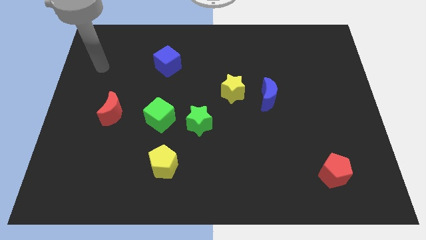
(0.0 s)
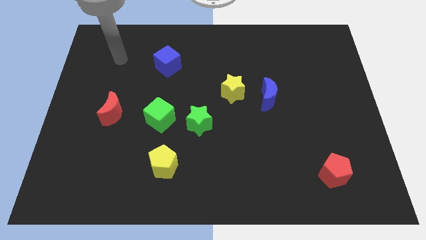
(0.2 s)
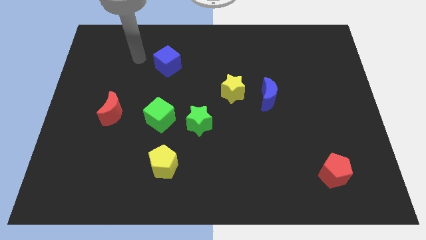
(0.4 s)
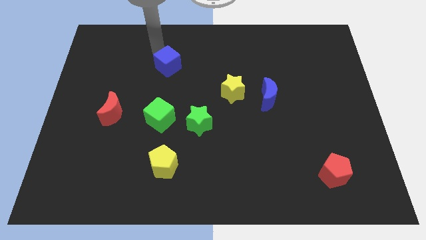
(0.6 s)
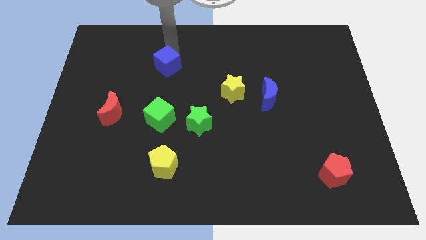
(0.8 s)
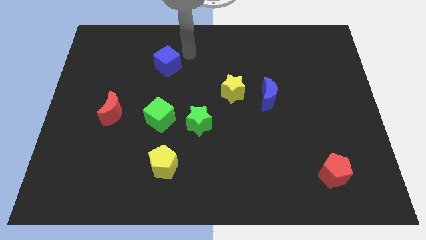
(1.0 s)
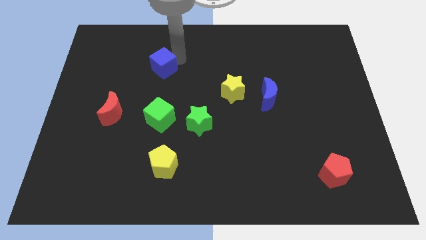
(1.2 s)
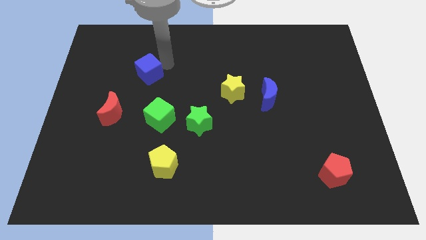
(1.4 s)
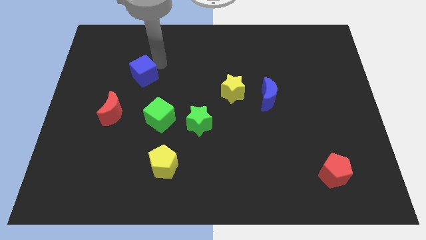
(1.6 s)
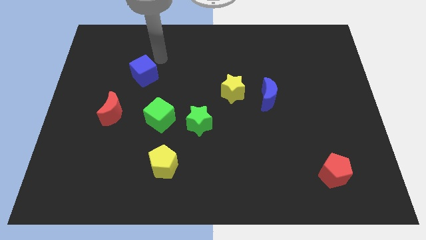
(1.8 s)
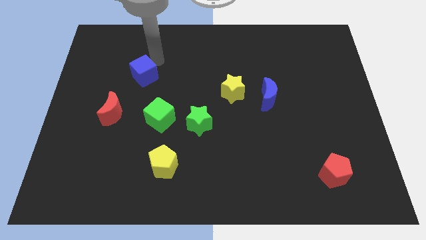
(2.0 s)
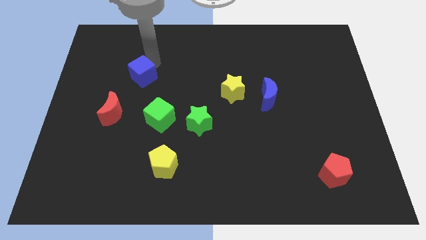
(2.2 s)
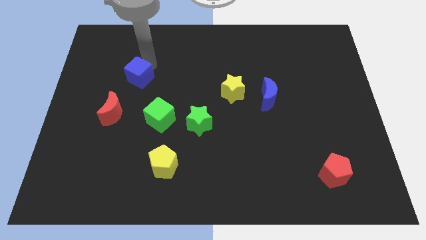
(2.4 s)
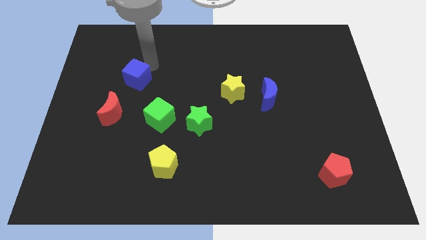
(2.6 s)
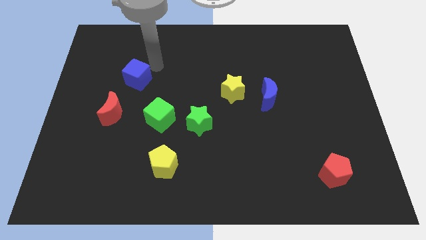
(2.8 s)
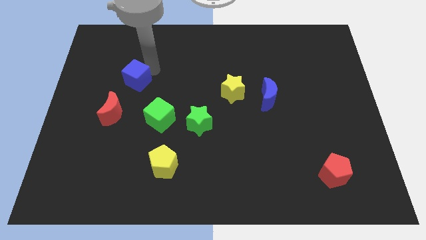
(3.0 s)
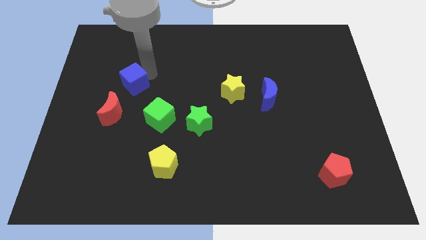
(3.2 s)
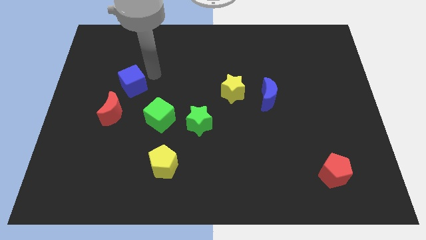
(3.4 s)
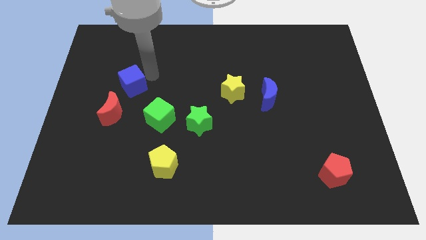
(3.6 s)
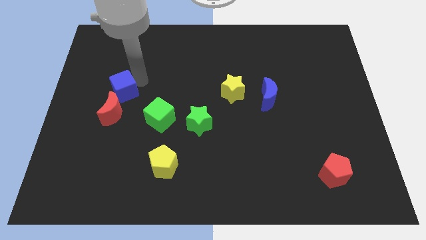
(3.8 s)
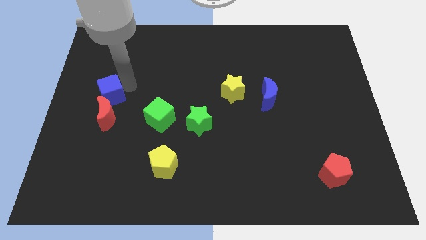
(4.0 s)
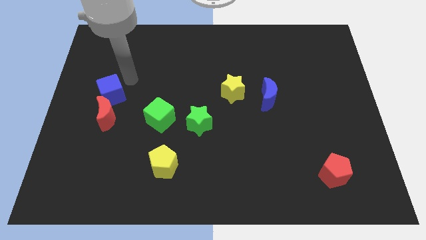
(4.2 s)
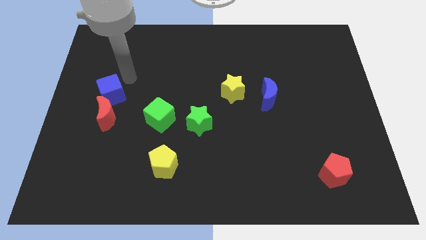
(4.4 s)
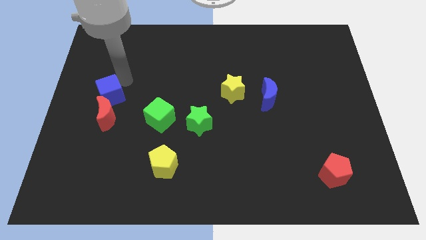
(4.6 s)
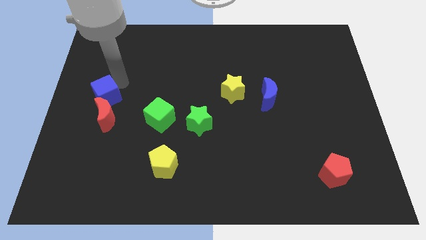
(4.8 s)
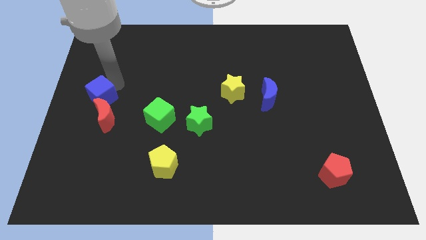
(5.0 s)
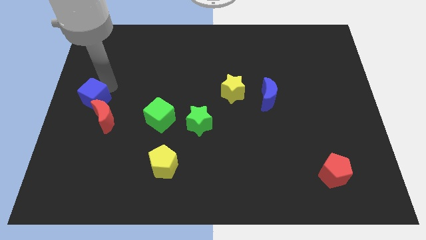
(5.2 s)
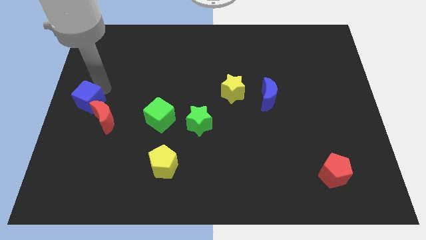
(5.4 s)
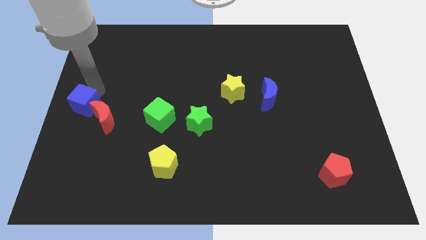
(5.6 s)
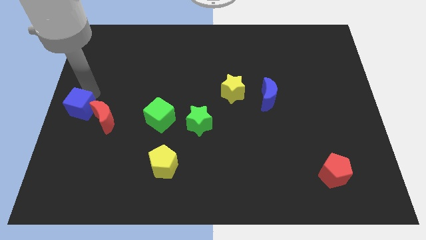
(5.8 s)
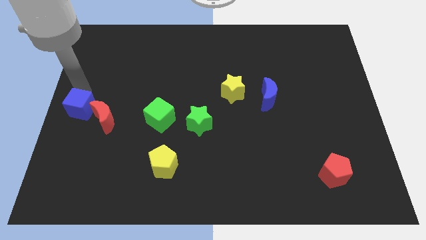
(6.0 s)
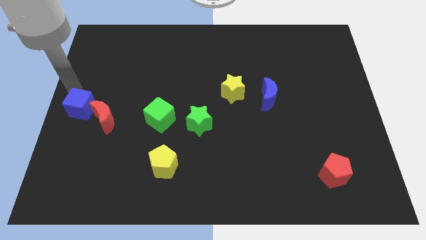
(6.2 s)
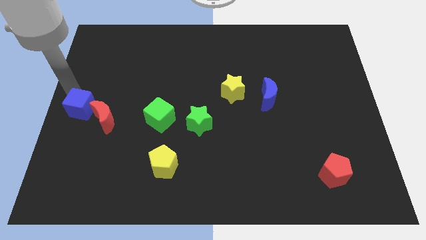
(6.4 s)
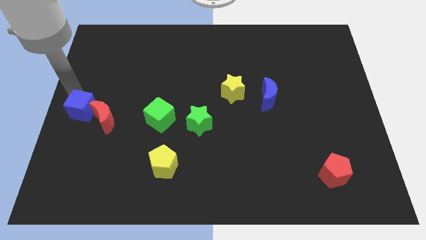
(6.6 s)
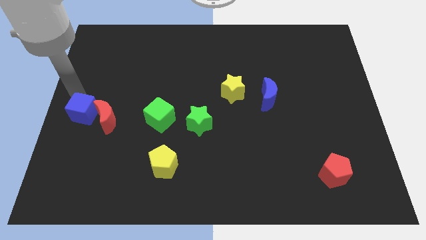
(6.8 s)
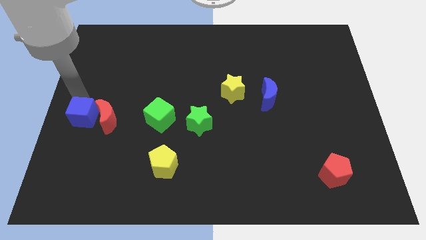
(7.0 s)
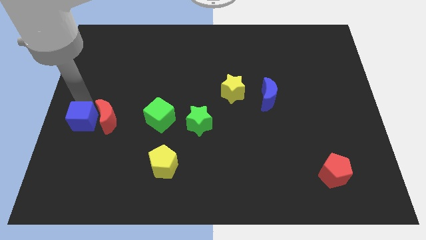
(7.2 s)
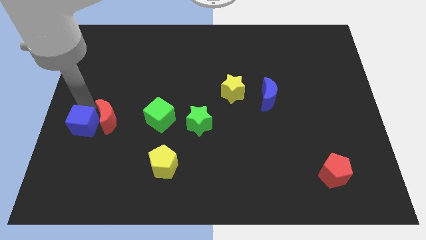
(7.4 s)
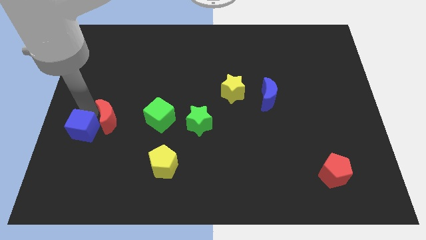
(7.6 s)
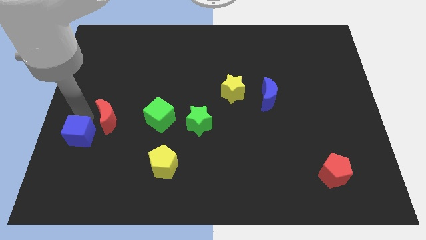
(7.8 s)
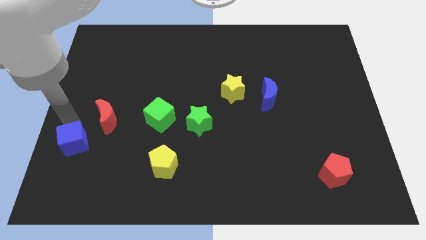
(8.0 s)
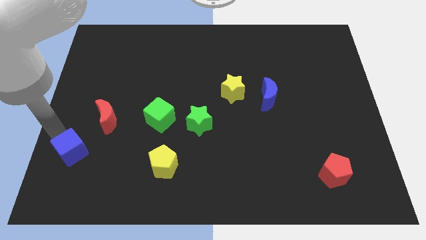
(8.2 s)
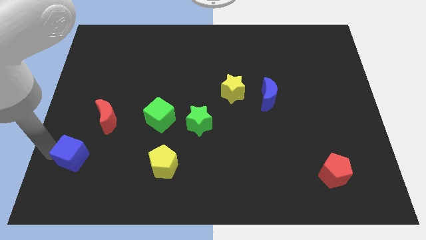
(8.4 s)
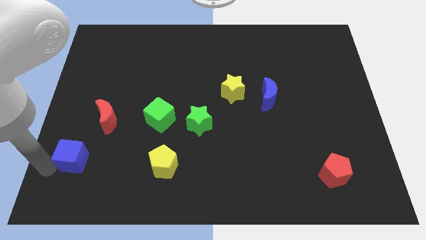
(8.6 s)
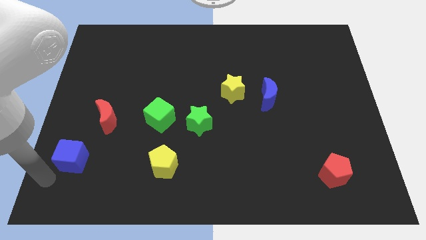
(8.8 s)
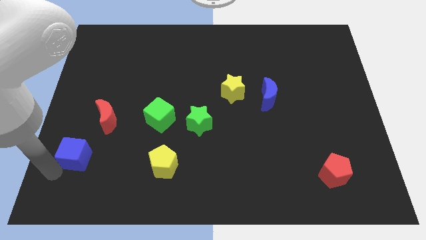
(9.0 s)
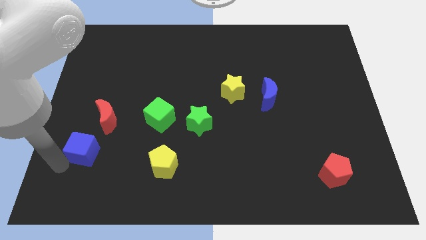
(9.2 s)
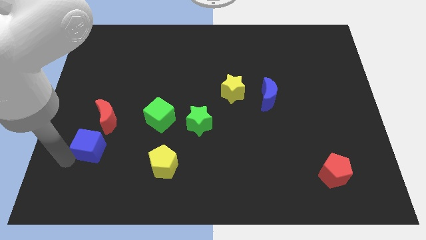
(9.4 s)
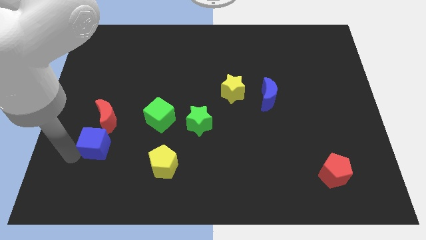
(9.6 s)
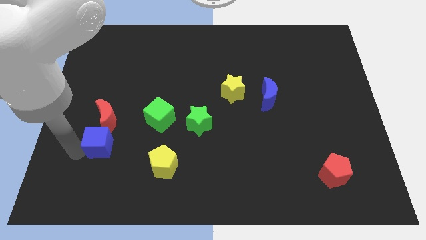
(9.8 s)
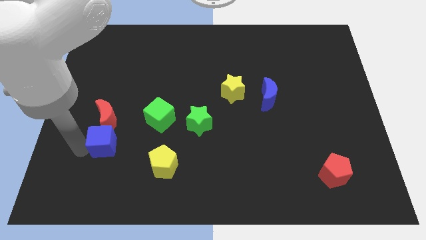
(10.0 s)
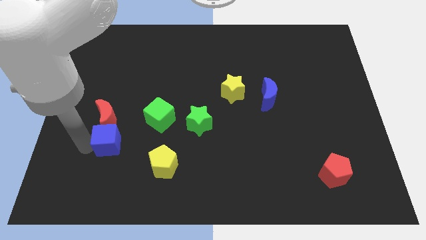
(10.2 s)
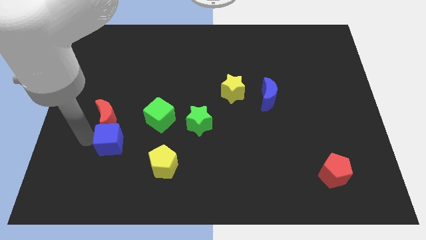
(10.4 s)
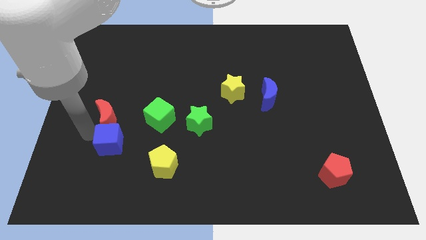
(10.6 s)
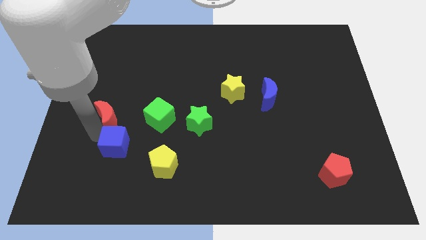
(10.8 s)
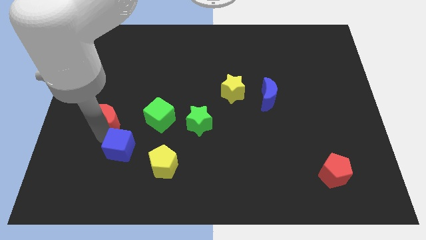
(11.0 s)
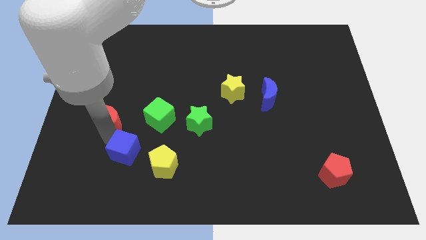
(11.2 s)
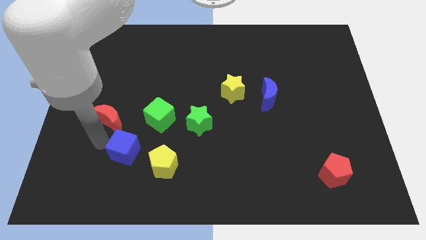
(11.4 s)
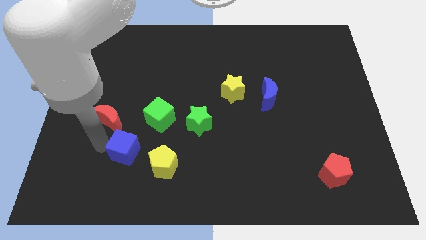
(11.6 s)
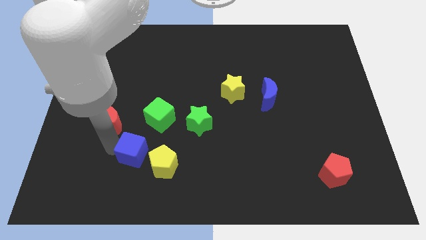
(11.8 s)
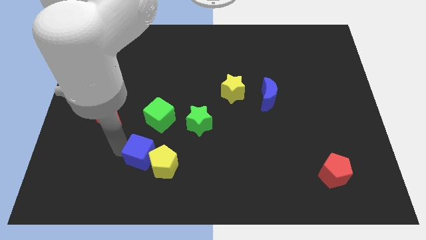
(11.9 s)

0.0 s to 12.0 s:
move the blue cube towards the yellow pentagon

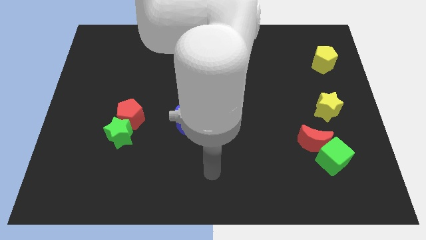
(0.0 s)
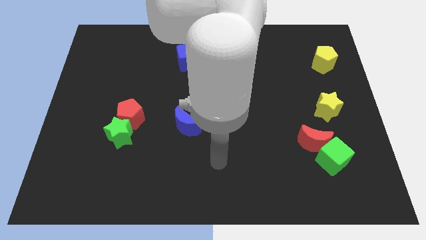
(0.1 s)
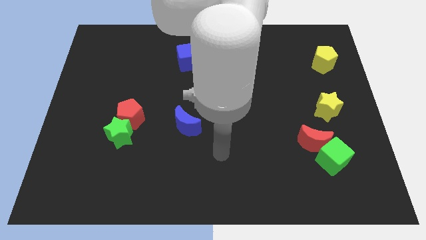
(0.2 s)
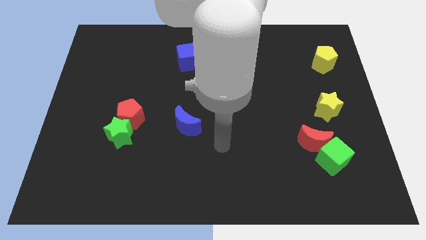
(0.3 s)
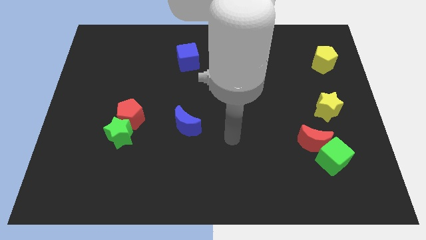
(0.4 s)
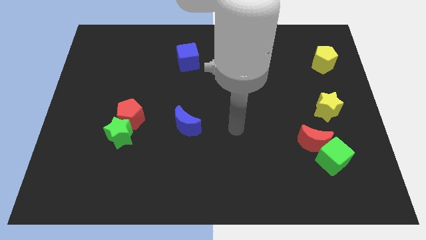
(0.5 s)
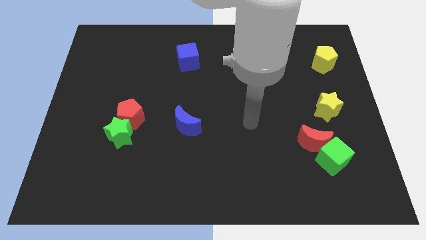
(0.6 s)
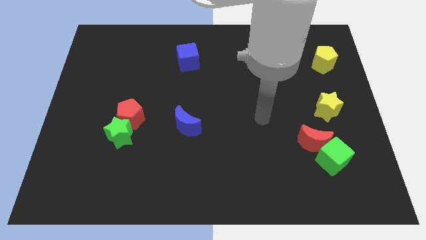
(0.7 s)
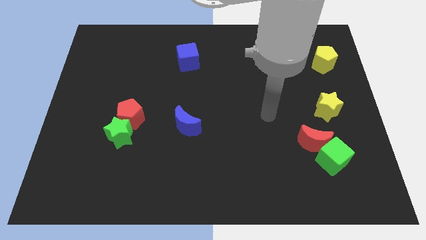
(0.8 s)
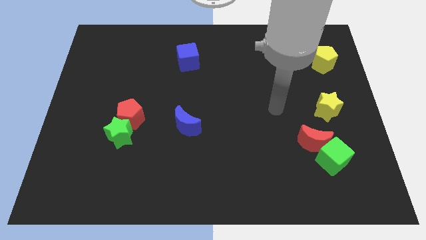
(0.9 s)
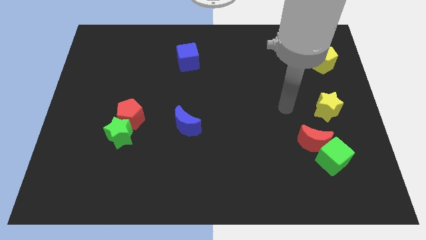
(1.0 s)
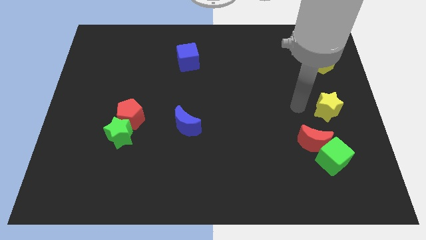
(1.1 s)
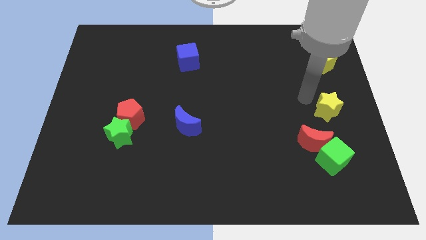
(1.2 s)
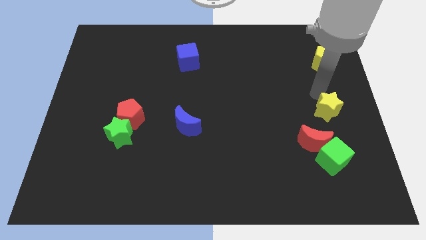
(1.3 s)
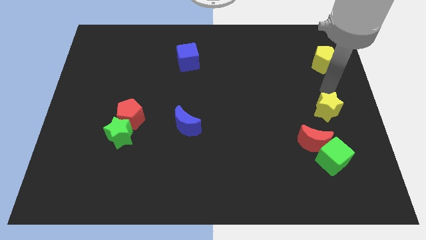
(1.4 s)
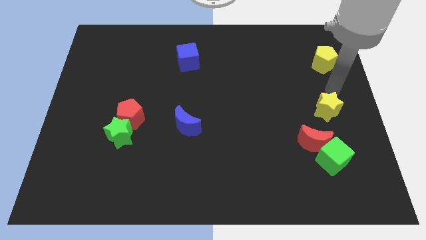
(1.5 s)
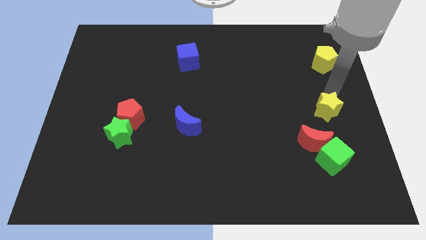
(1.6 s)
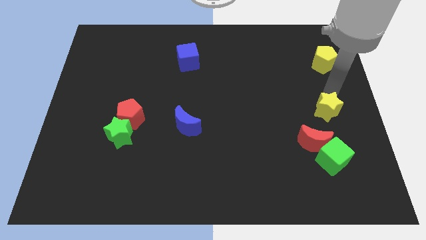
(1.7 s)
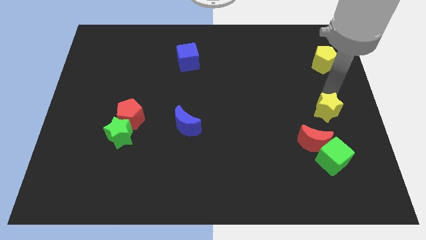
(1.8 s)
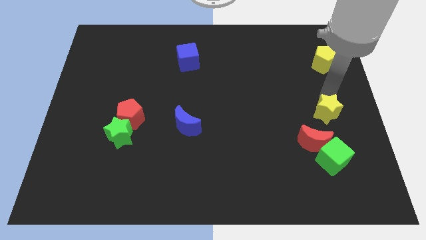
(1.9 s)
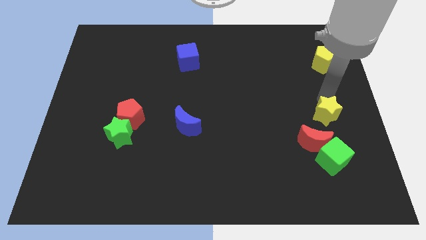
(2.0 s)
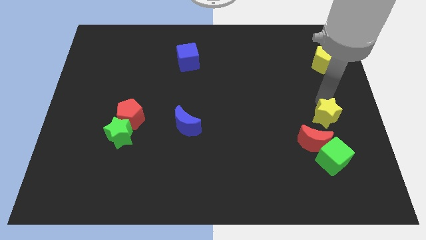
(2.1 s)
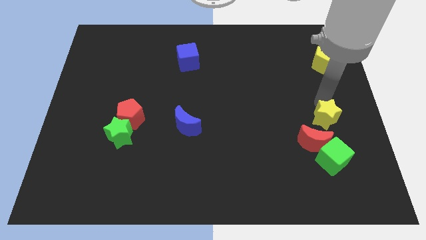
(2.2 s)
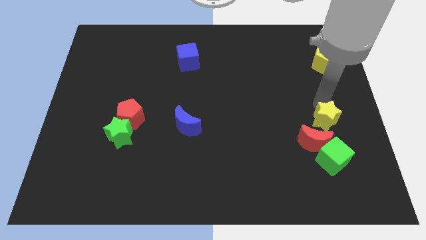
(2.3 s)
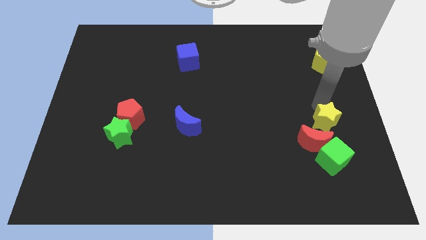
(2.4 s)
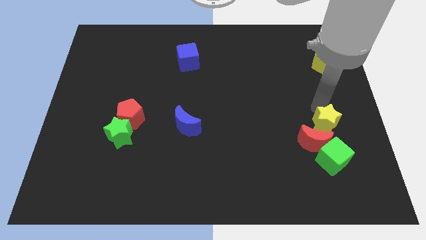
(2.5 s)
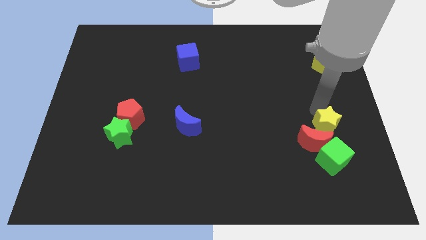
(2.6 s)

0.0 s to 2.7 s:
push the yellow star to the red moon
